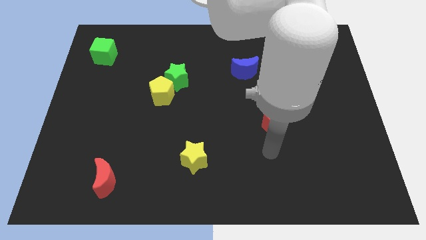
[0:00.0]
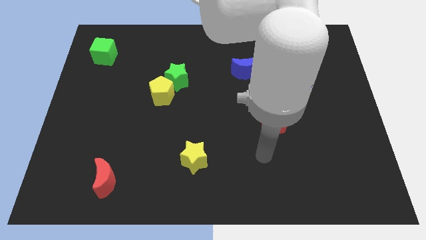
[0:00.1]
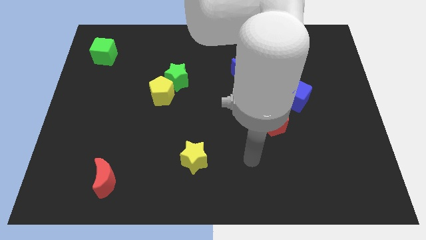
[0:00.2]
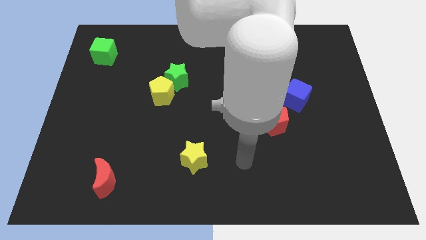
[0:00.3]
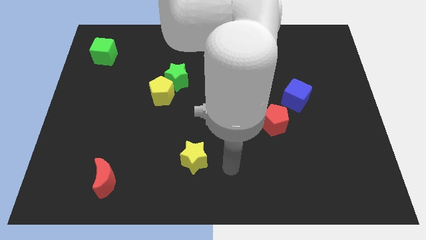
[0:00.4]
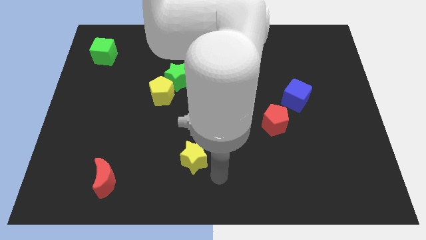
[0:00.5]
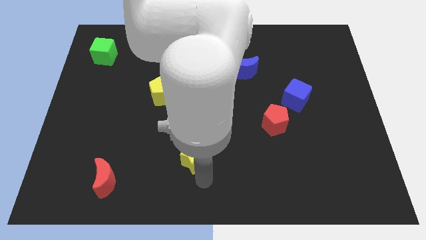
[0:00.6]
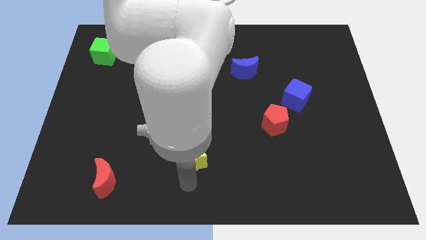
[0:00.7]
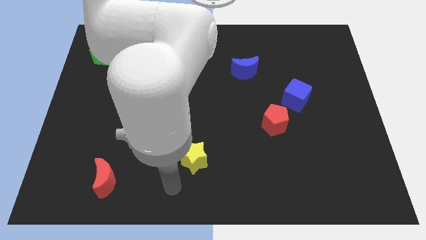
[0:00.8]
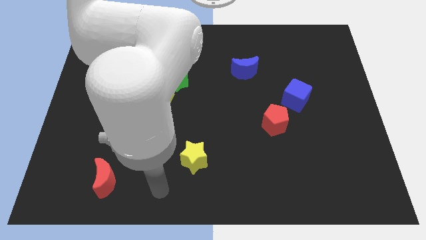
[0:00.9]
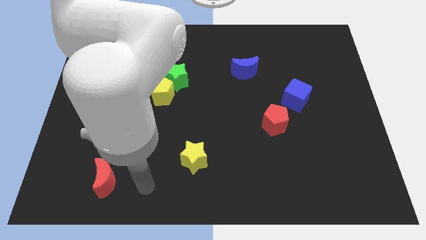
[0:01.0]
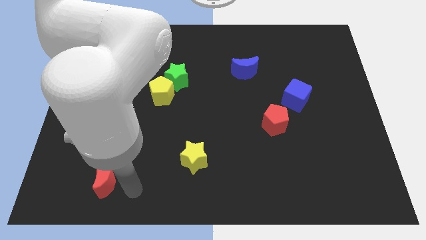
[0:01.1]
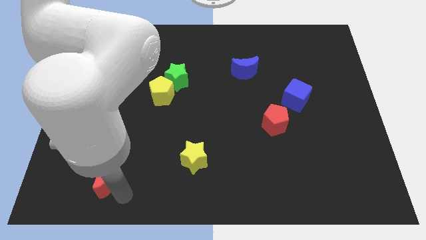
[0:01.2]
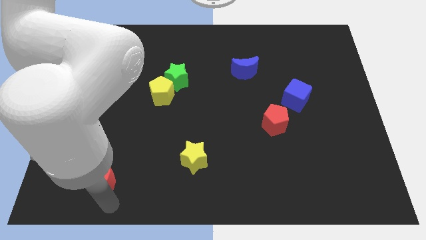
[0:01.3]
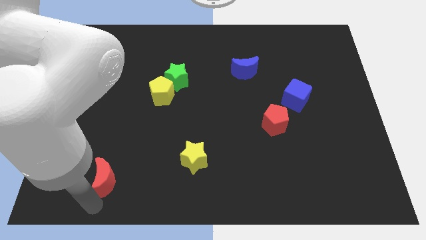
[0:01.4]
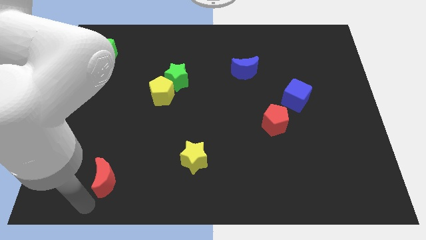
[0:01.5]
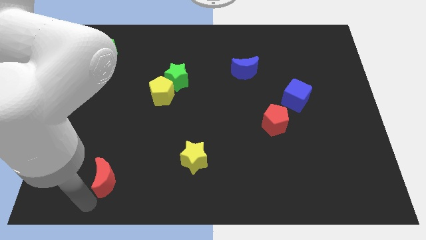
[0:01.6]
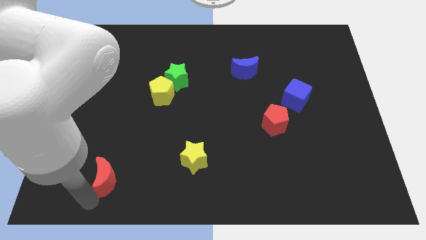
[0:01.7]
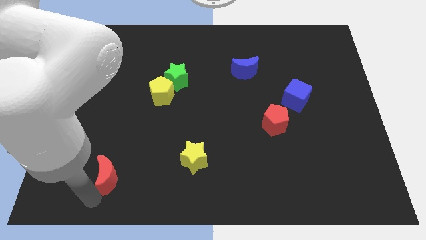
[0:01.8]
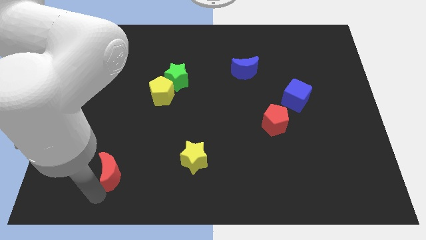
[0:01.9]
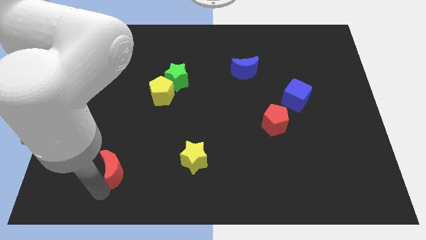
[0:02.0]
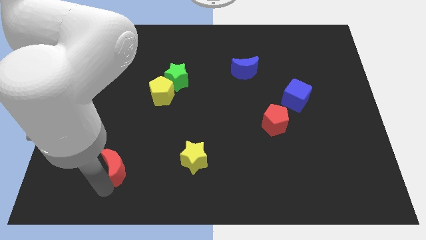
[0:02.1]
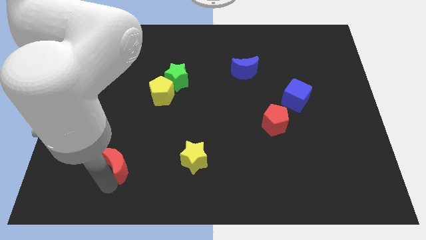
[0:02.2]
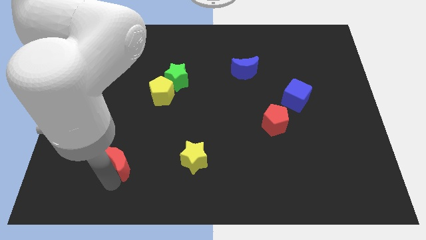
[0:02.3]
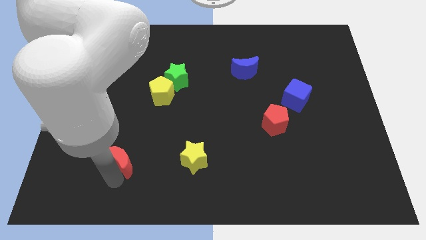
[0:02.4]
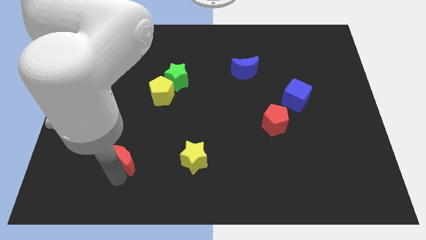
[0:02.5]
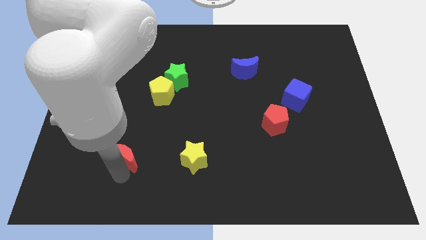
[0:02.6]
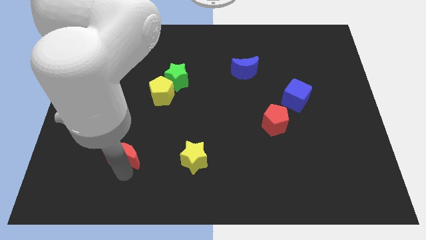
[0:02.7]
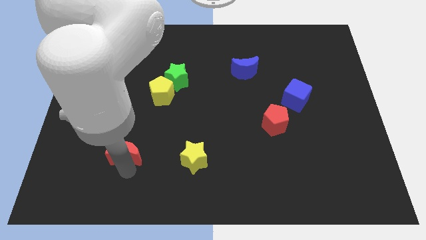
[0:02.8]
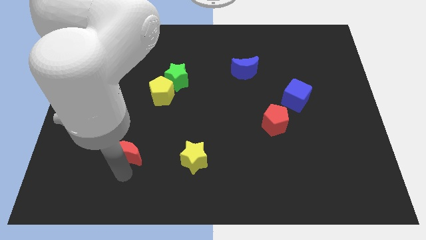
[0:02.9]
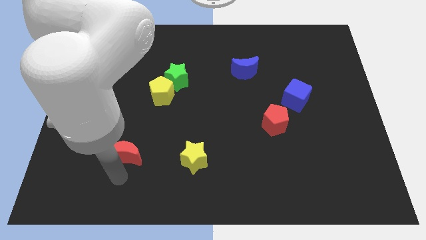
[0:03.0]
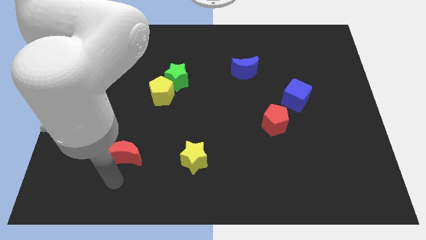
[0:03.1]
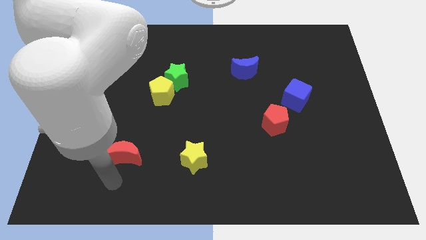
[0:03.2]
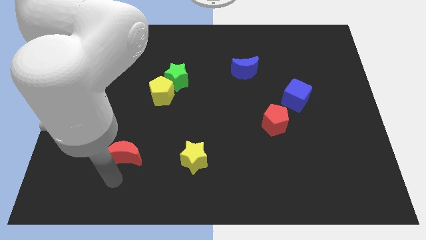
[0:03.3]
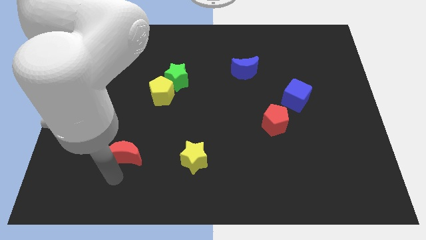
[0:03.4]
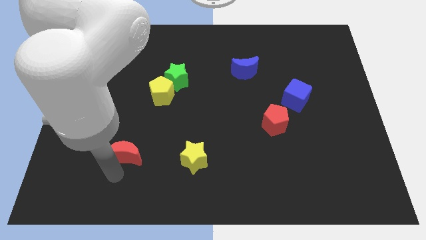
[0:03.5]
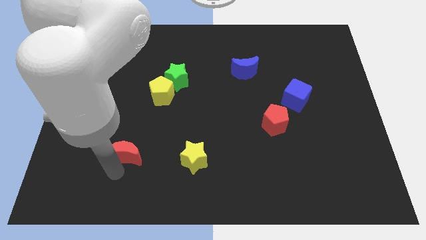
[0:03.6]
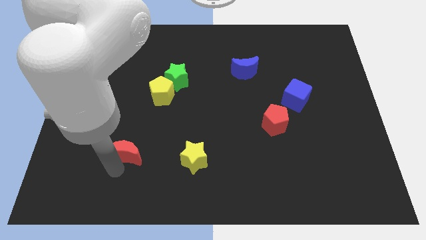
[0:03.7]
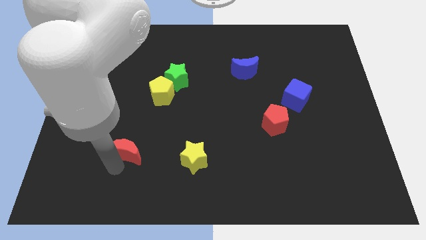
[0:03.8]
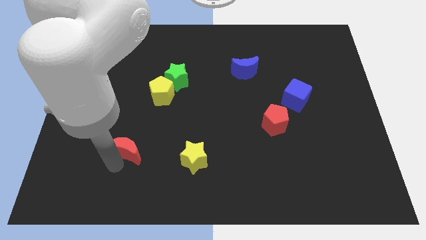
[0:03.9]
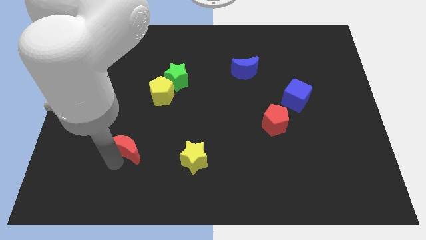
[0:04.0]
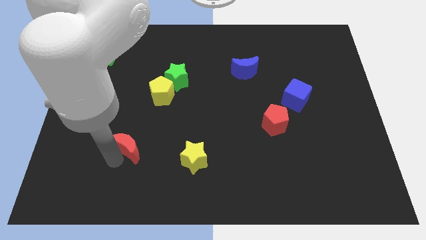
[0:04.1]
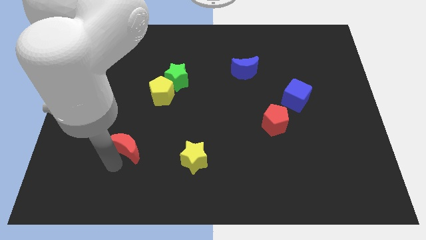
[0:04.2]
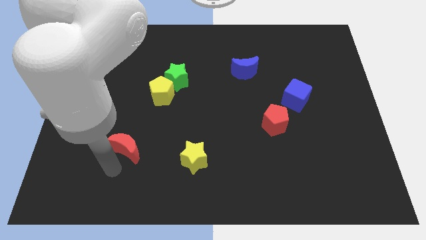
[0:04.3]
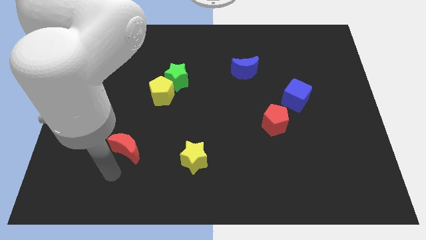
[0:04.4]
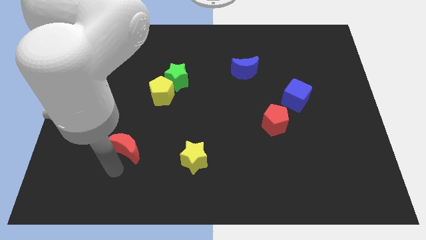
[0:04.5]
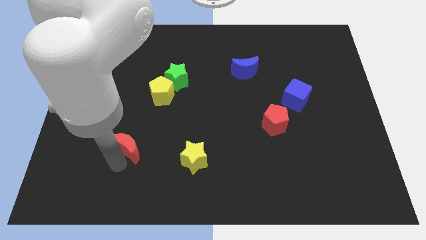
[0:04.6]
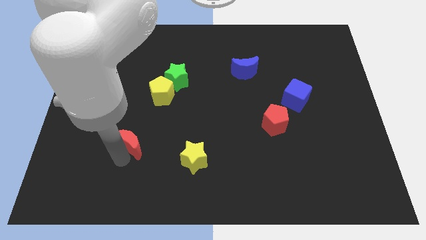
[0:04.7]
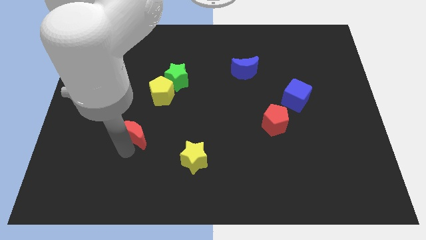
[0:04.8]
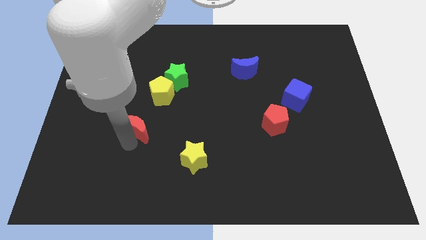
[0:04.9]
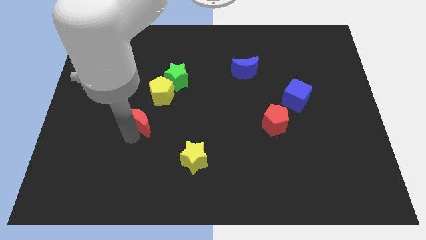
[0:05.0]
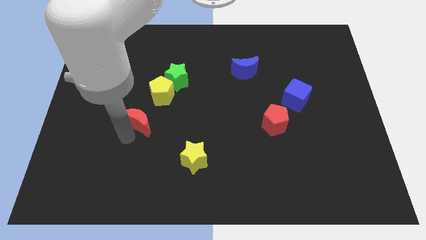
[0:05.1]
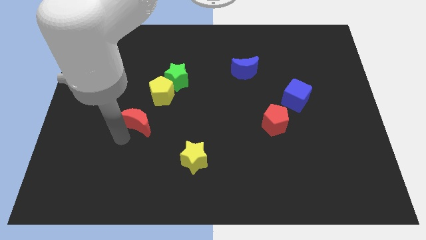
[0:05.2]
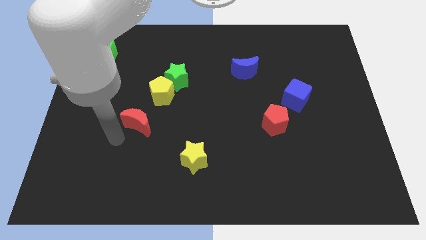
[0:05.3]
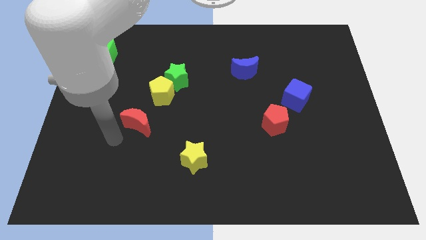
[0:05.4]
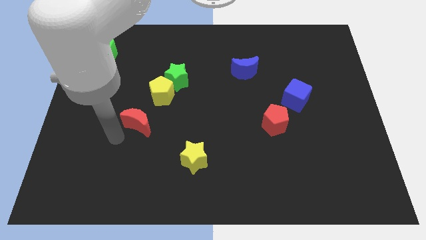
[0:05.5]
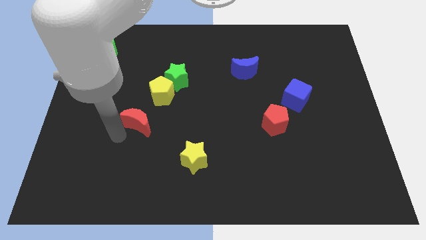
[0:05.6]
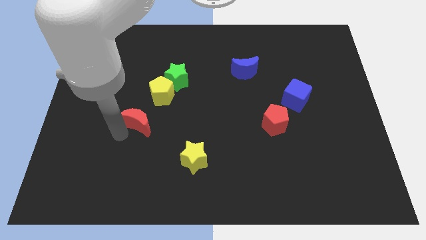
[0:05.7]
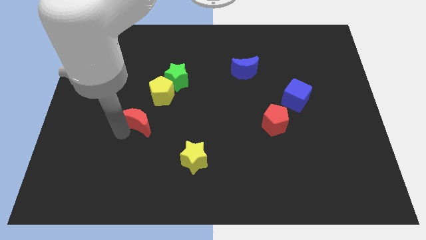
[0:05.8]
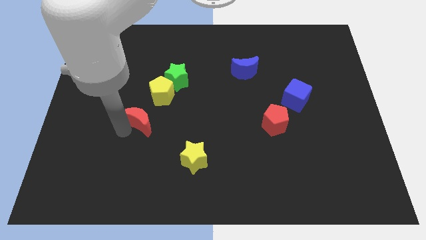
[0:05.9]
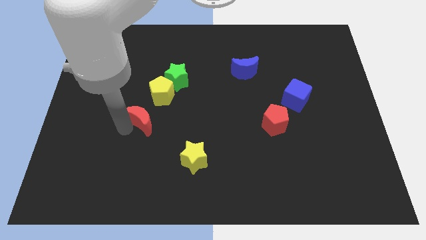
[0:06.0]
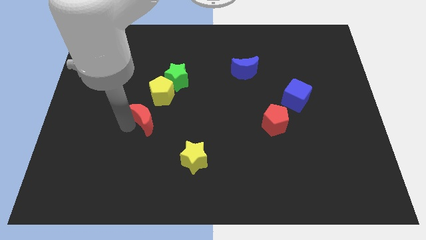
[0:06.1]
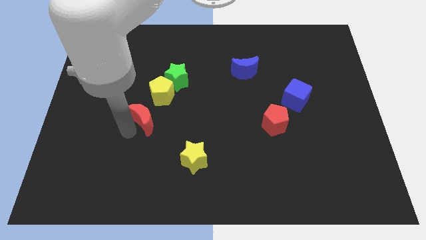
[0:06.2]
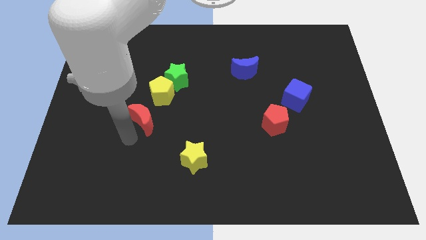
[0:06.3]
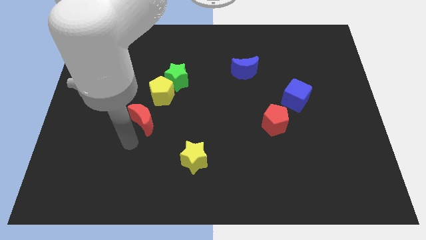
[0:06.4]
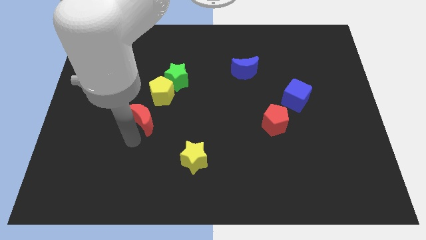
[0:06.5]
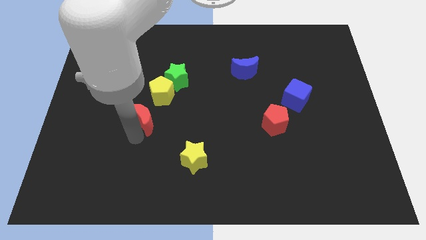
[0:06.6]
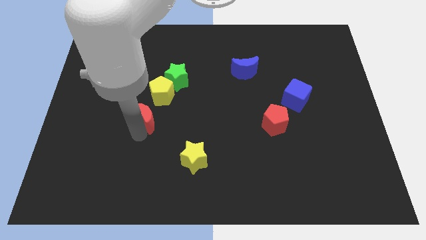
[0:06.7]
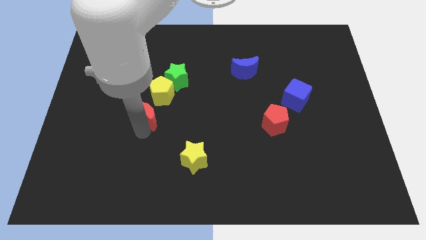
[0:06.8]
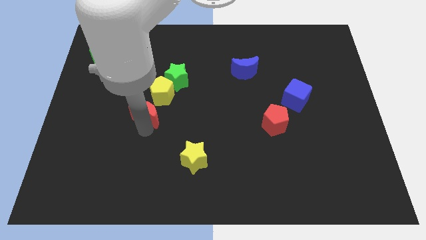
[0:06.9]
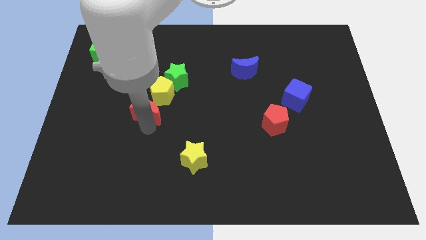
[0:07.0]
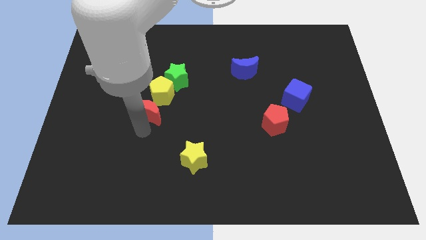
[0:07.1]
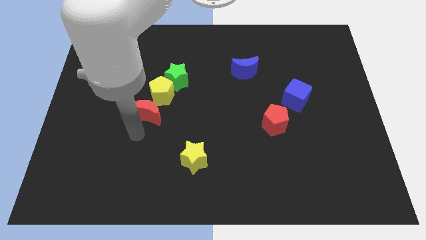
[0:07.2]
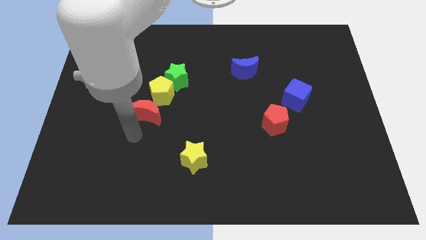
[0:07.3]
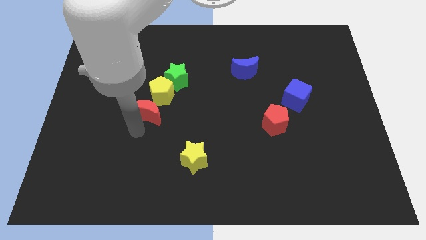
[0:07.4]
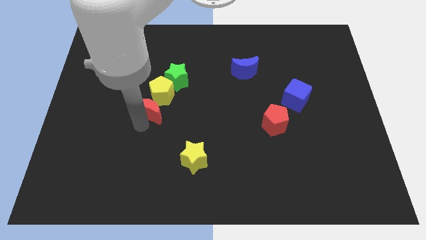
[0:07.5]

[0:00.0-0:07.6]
put the red moon to the yellow pentagon
